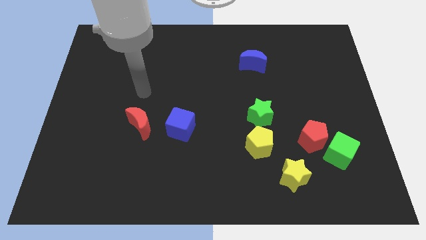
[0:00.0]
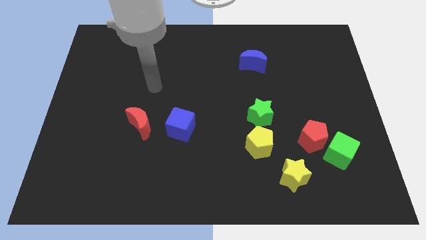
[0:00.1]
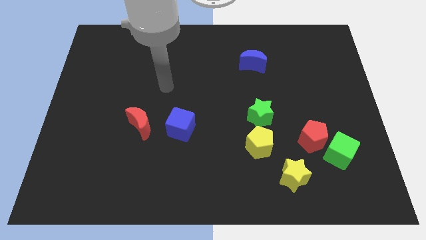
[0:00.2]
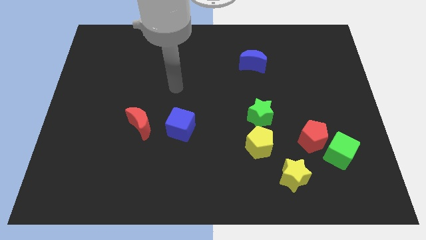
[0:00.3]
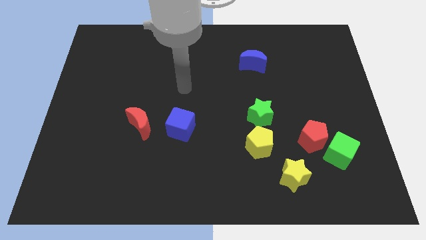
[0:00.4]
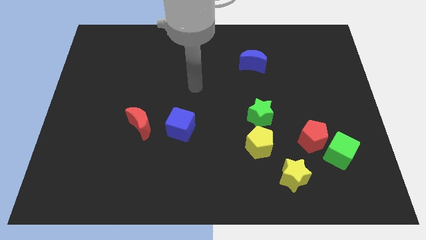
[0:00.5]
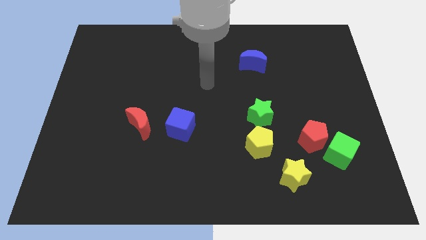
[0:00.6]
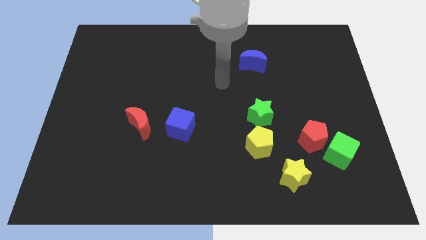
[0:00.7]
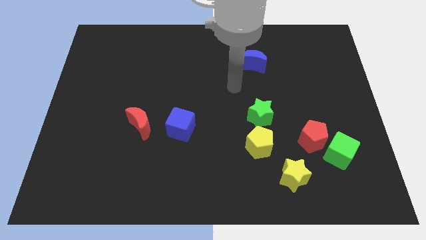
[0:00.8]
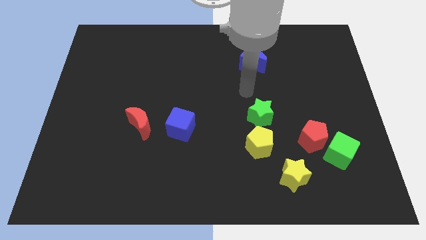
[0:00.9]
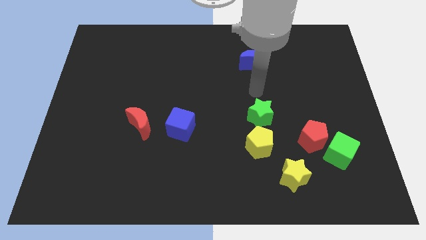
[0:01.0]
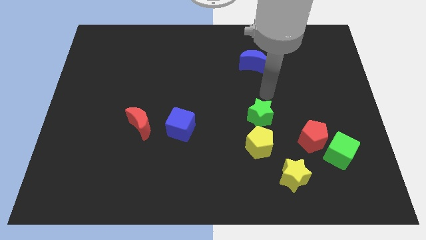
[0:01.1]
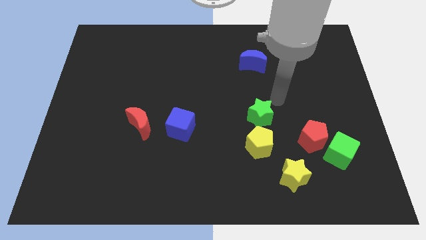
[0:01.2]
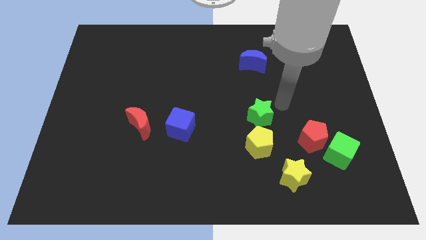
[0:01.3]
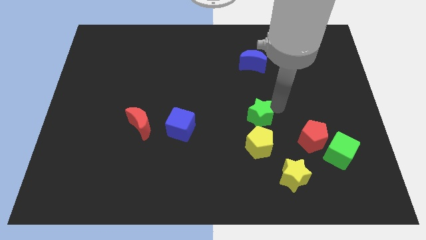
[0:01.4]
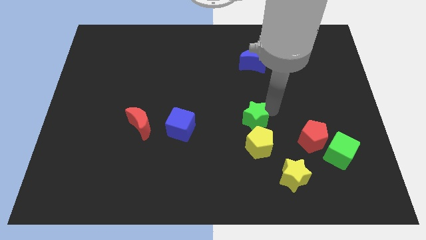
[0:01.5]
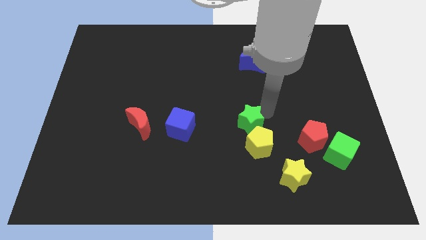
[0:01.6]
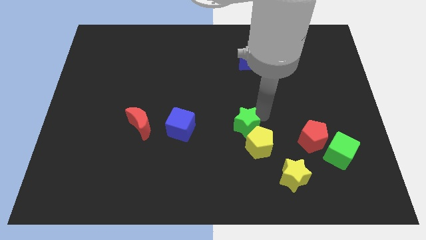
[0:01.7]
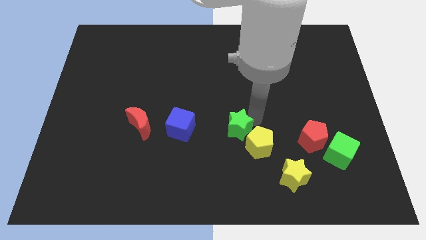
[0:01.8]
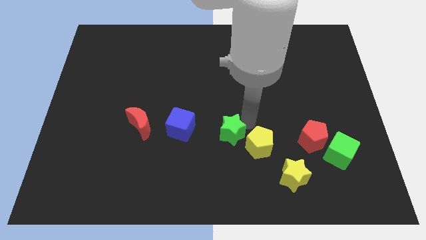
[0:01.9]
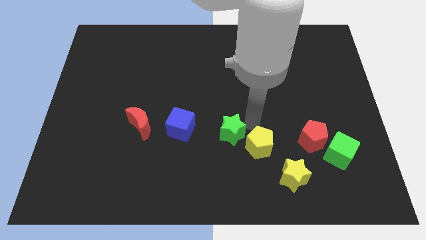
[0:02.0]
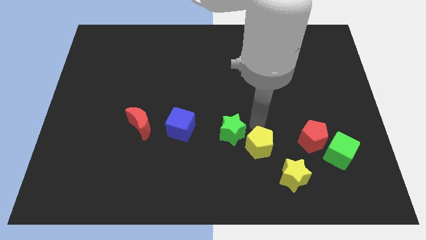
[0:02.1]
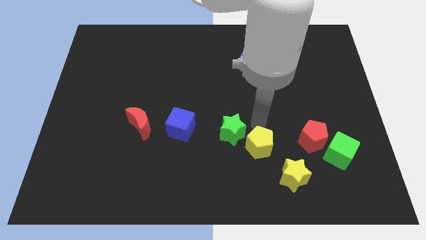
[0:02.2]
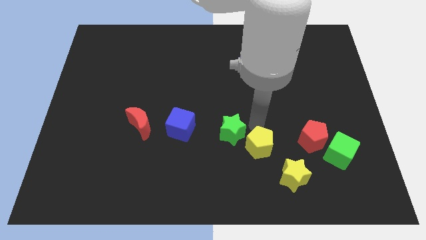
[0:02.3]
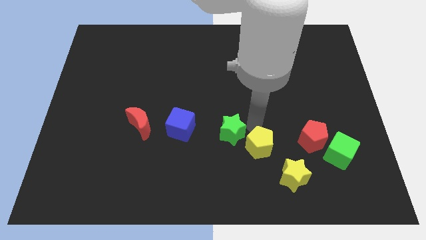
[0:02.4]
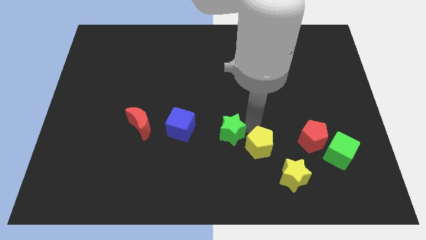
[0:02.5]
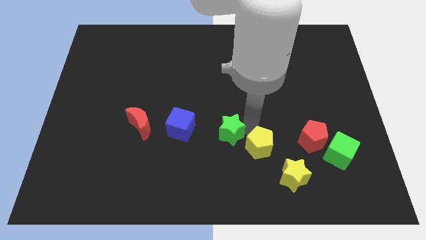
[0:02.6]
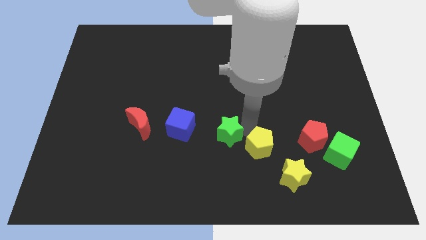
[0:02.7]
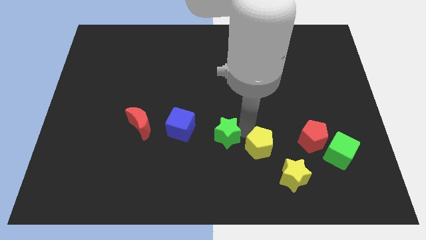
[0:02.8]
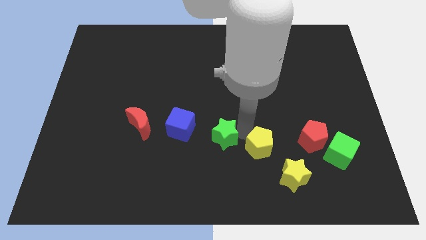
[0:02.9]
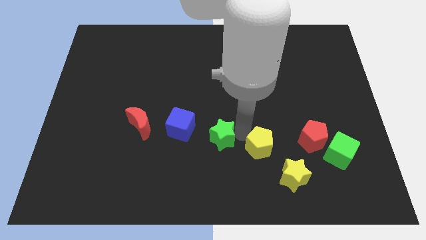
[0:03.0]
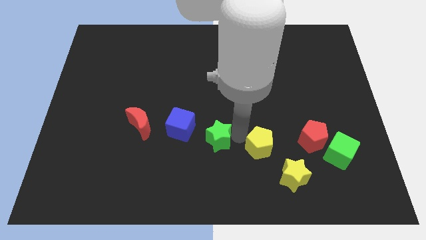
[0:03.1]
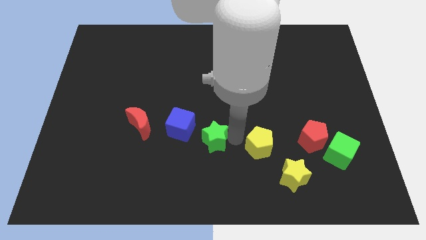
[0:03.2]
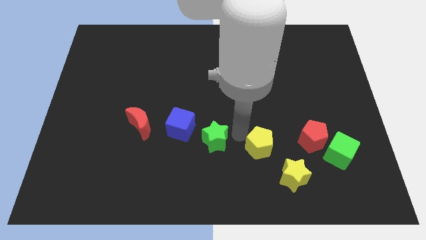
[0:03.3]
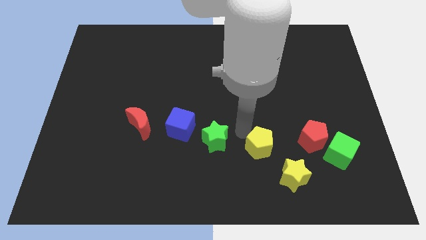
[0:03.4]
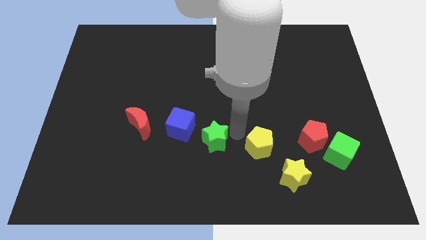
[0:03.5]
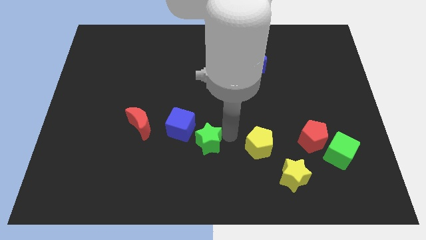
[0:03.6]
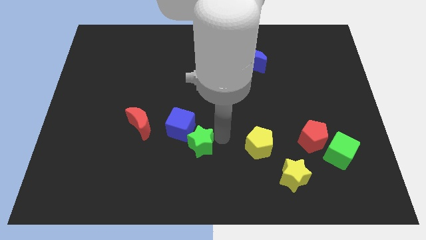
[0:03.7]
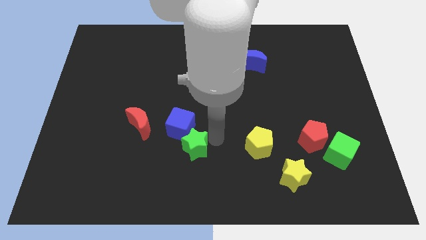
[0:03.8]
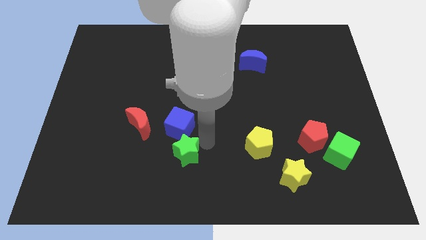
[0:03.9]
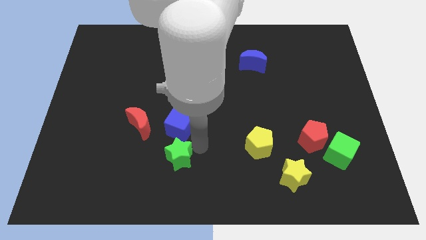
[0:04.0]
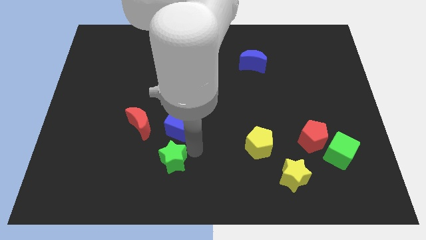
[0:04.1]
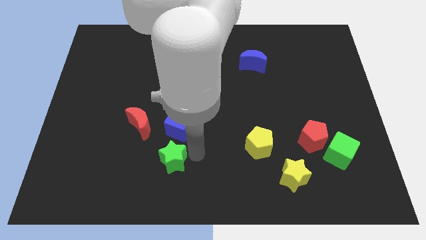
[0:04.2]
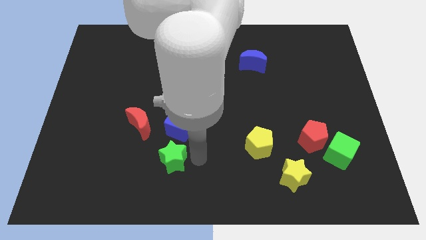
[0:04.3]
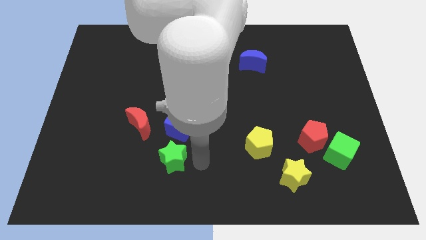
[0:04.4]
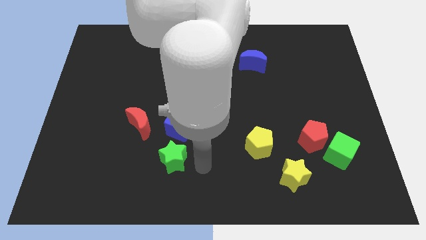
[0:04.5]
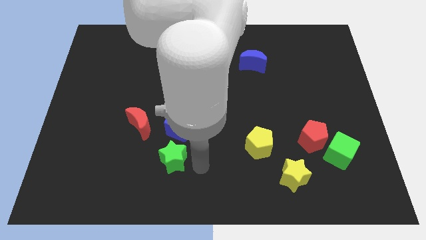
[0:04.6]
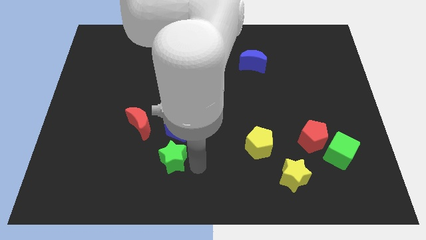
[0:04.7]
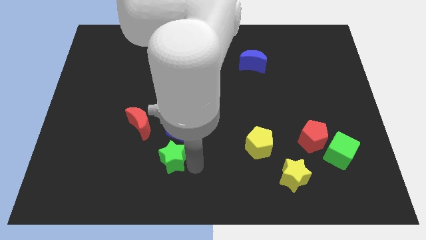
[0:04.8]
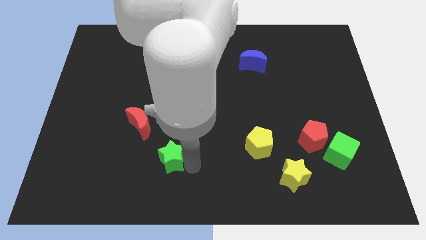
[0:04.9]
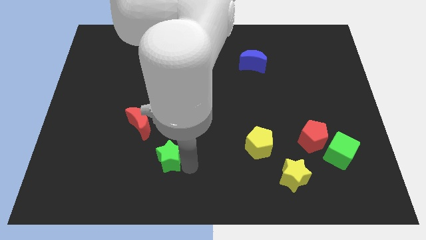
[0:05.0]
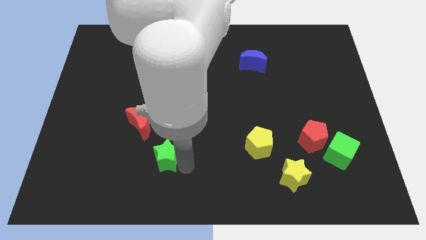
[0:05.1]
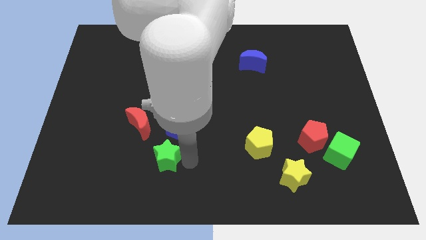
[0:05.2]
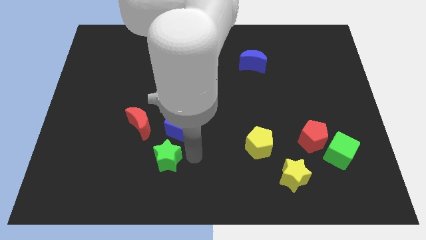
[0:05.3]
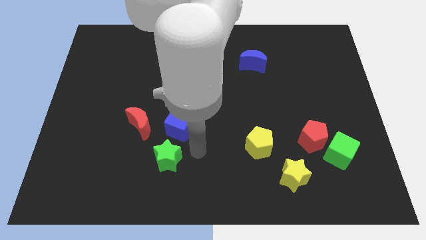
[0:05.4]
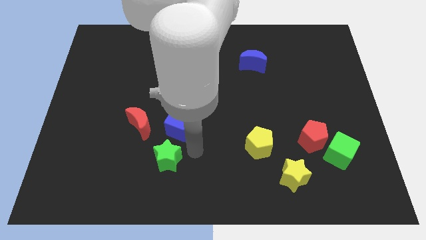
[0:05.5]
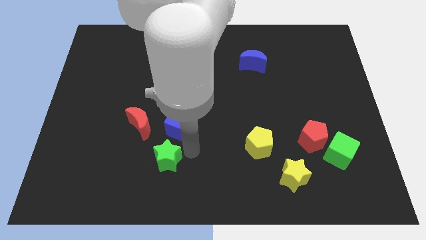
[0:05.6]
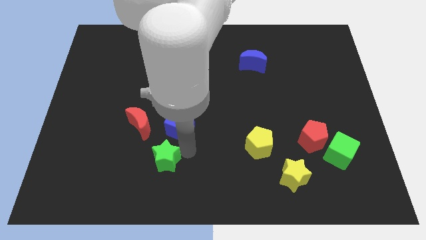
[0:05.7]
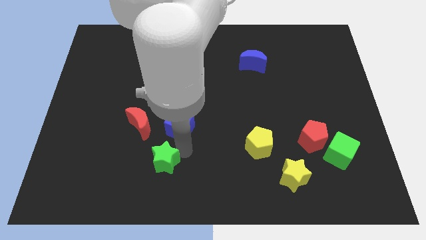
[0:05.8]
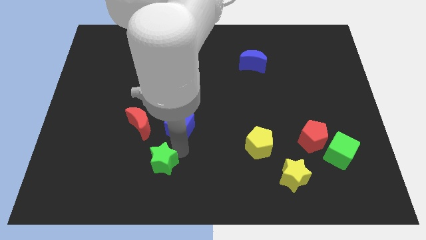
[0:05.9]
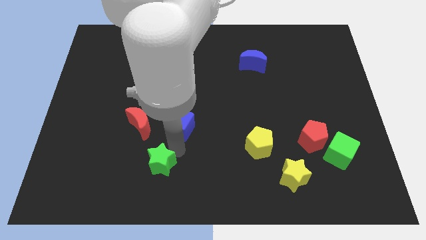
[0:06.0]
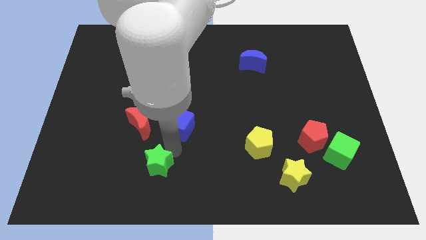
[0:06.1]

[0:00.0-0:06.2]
slide the green star to the bottom side of the red moon

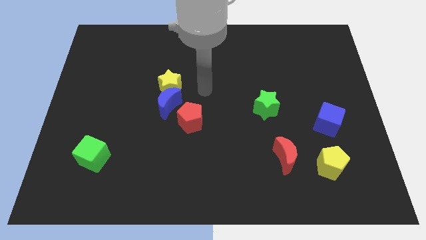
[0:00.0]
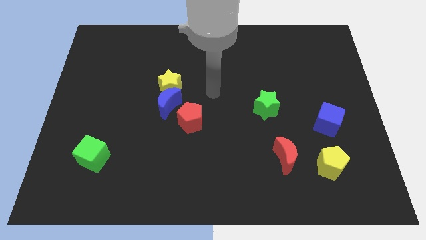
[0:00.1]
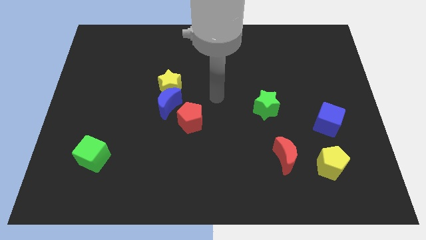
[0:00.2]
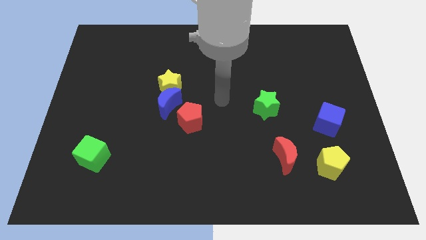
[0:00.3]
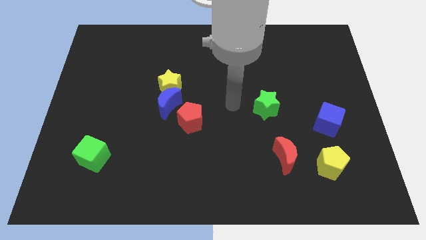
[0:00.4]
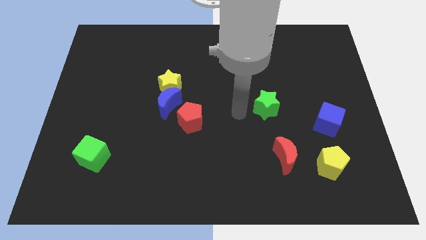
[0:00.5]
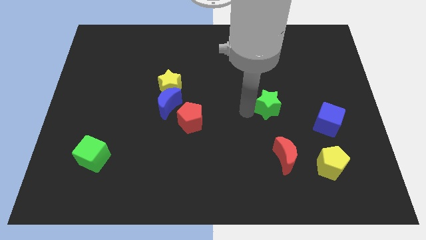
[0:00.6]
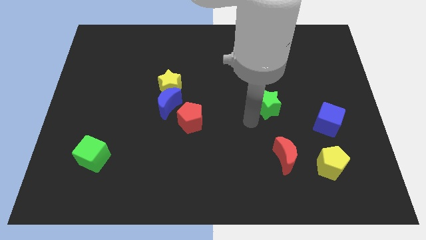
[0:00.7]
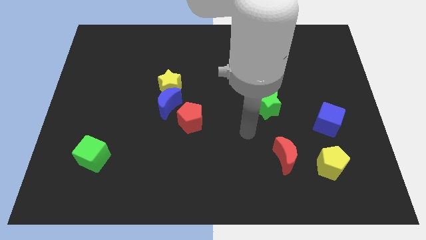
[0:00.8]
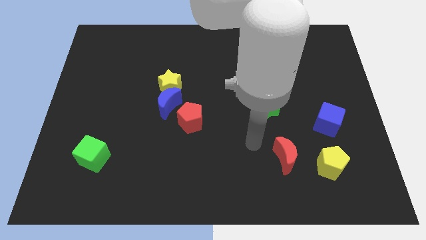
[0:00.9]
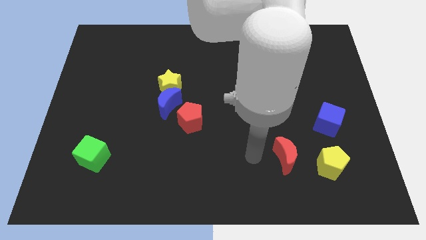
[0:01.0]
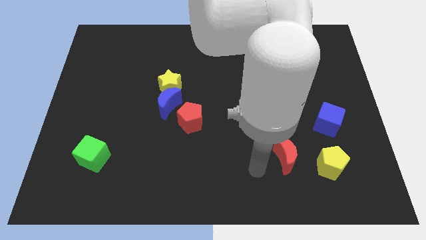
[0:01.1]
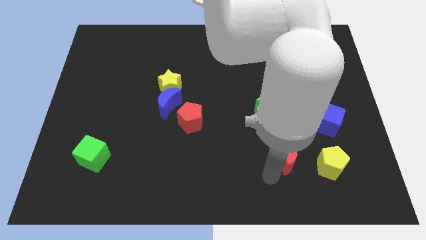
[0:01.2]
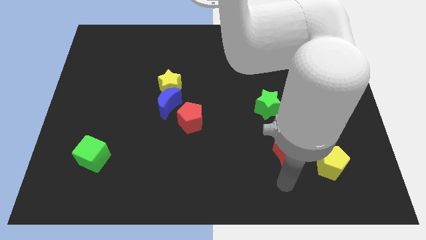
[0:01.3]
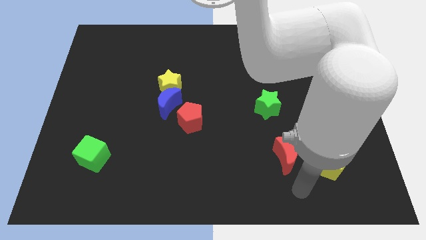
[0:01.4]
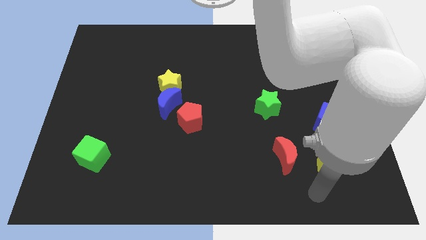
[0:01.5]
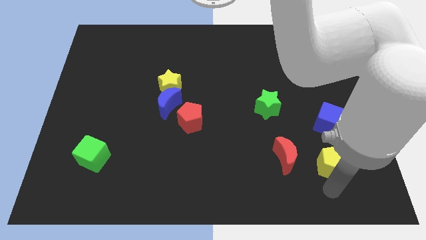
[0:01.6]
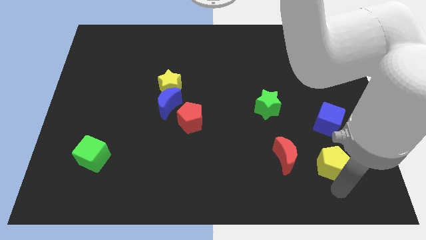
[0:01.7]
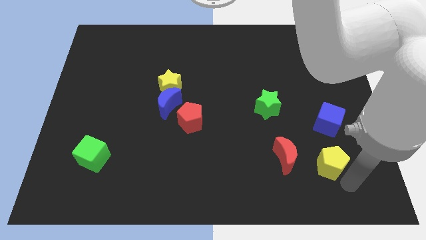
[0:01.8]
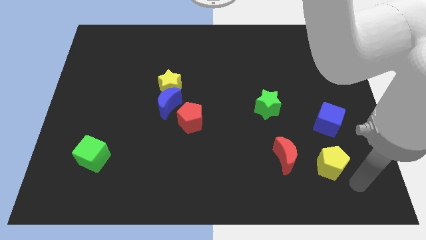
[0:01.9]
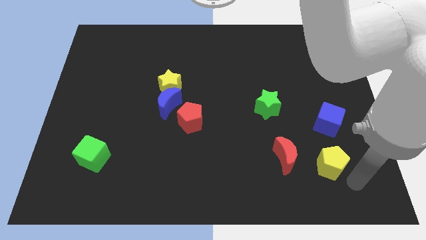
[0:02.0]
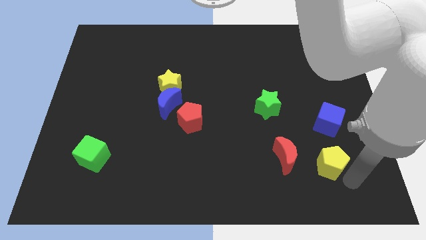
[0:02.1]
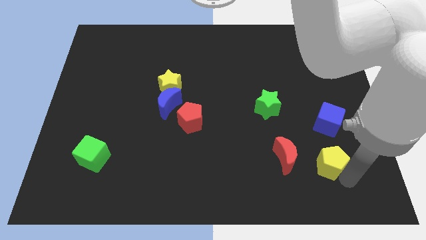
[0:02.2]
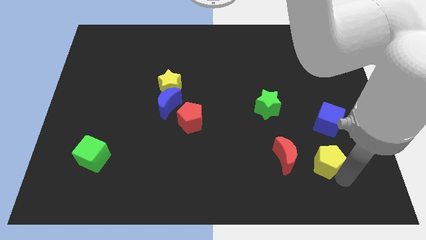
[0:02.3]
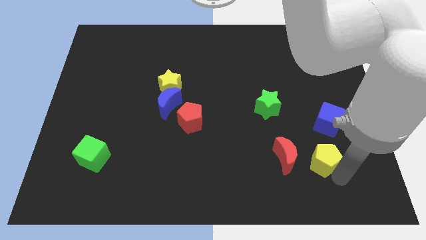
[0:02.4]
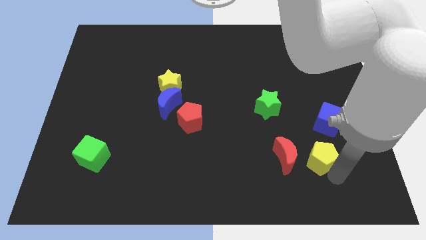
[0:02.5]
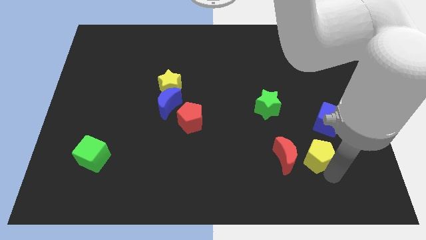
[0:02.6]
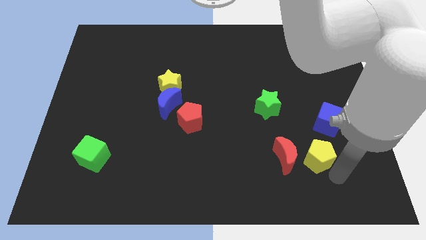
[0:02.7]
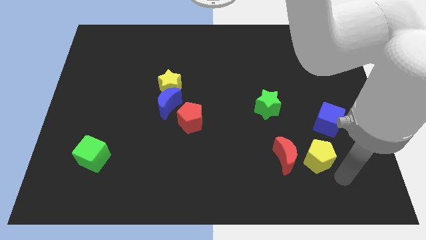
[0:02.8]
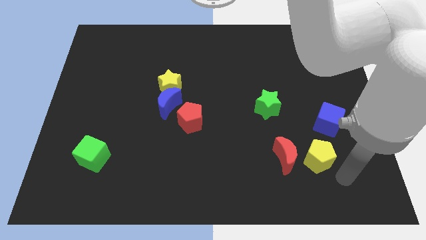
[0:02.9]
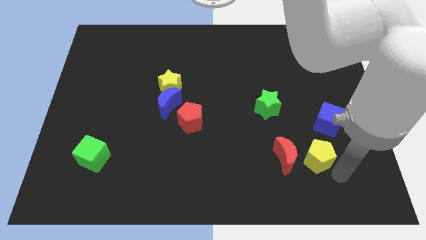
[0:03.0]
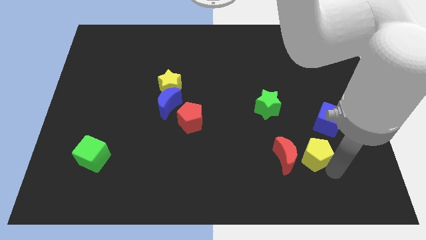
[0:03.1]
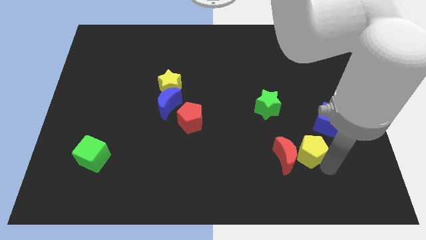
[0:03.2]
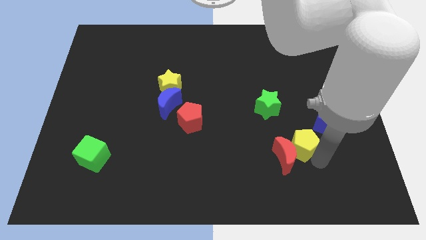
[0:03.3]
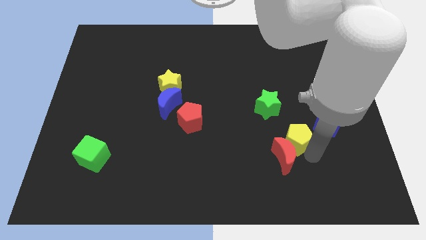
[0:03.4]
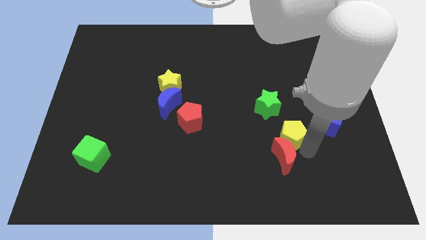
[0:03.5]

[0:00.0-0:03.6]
slide the yellow pentagon below the green star
